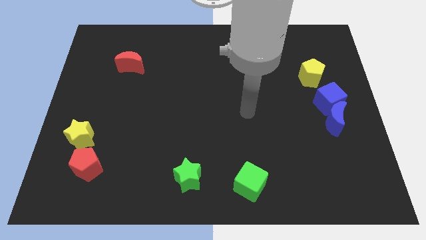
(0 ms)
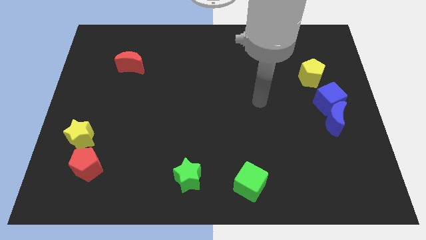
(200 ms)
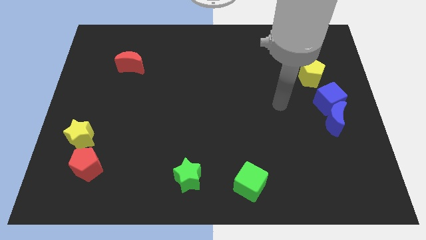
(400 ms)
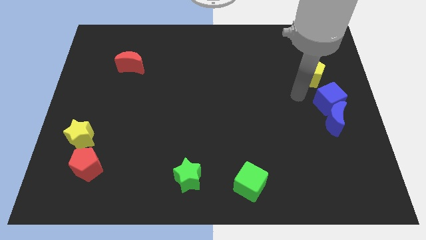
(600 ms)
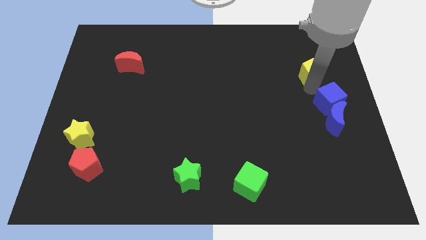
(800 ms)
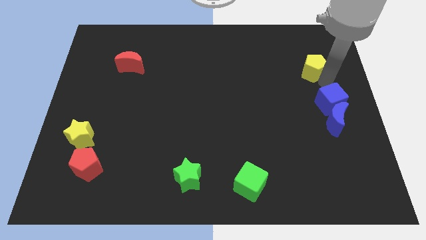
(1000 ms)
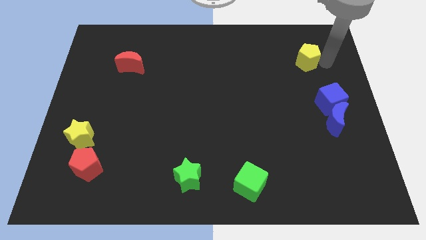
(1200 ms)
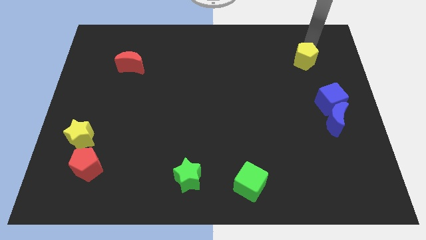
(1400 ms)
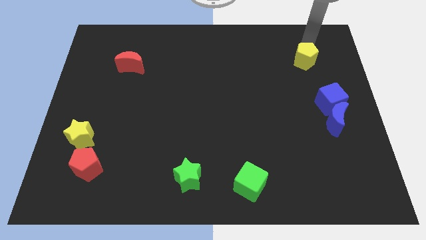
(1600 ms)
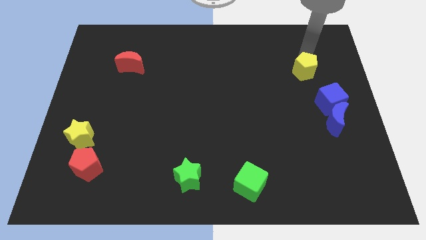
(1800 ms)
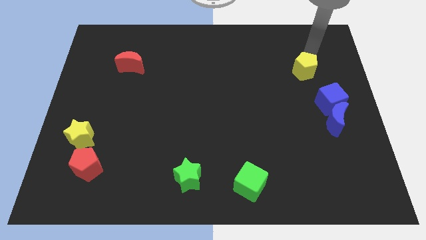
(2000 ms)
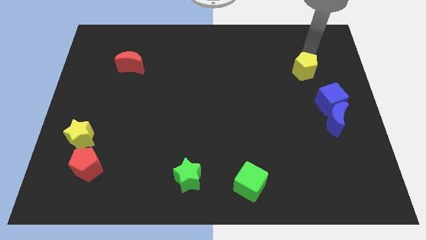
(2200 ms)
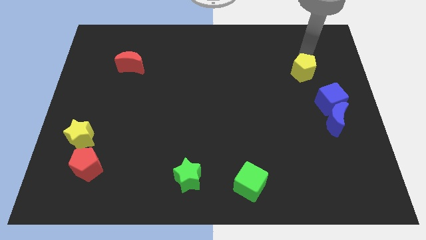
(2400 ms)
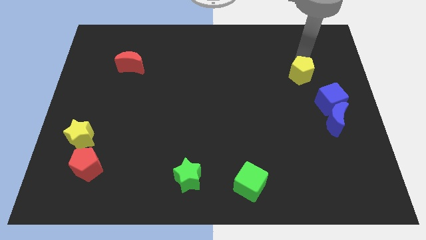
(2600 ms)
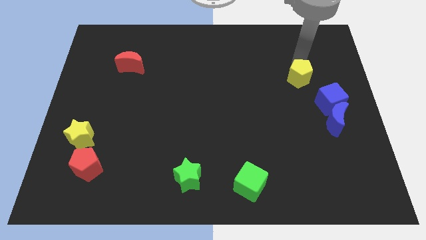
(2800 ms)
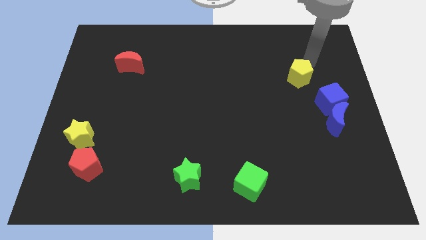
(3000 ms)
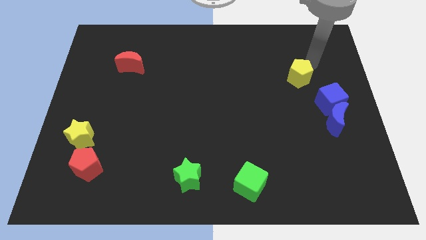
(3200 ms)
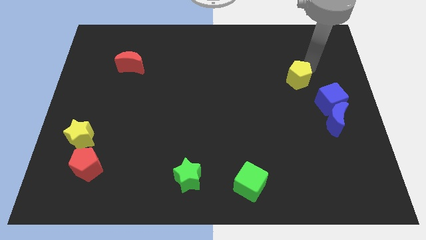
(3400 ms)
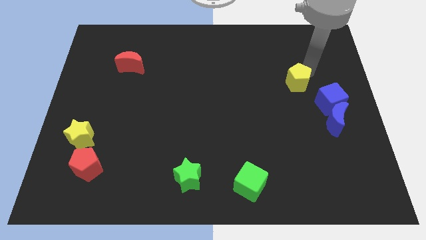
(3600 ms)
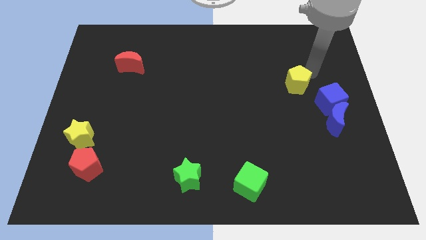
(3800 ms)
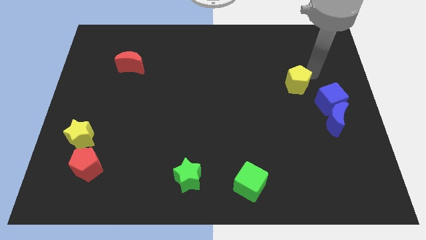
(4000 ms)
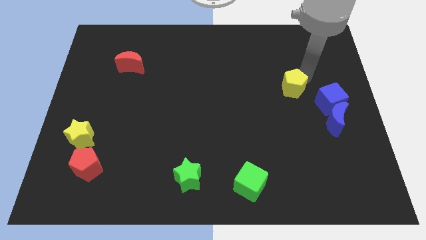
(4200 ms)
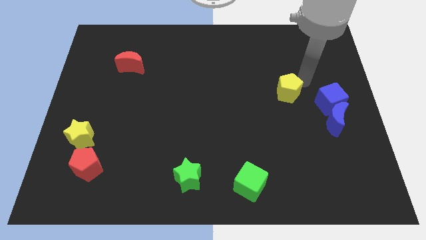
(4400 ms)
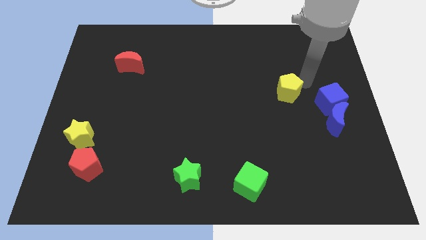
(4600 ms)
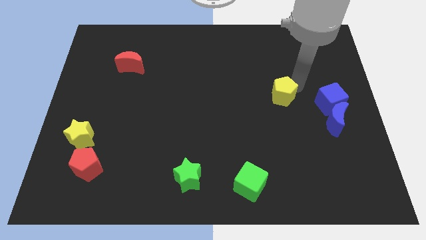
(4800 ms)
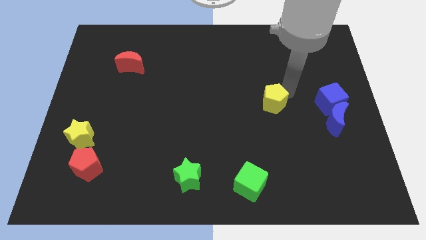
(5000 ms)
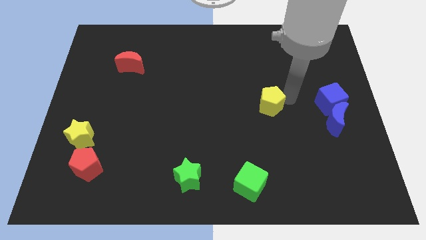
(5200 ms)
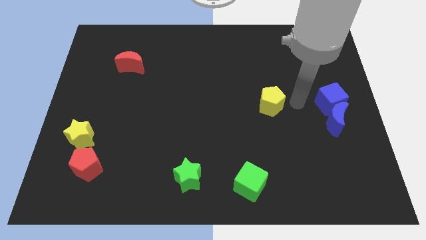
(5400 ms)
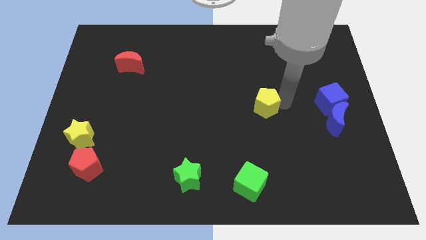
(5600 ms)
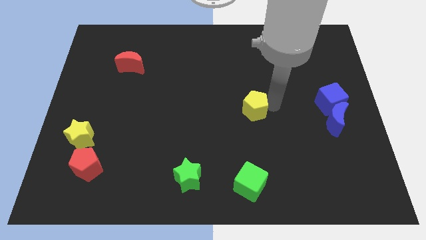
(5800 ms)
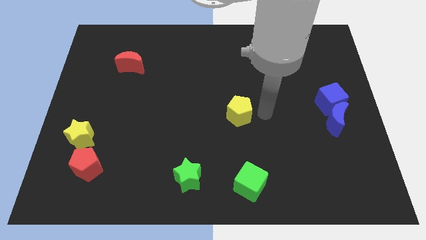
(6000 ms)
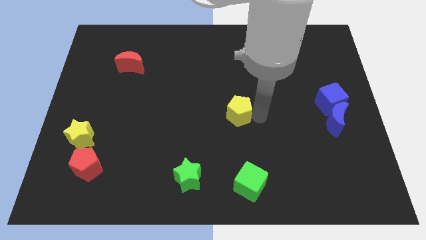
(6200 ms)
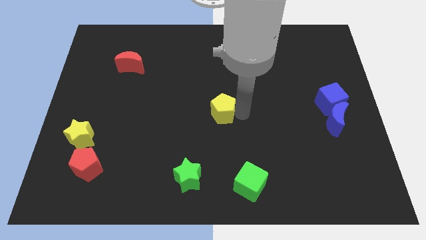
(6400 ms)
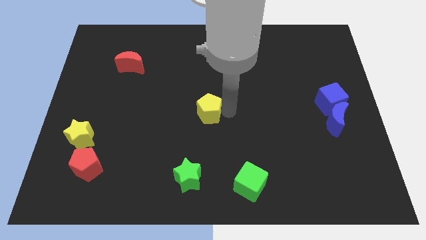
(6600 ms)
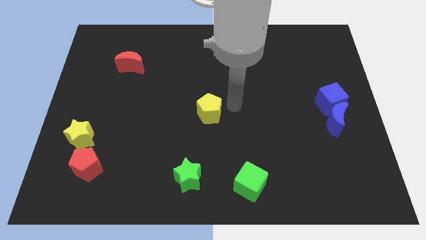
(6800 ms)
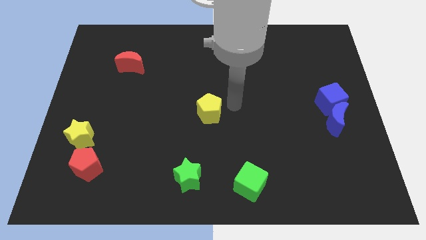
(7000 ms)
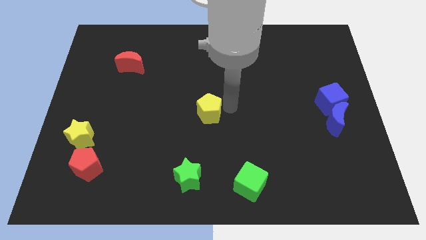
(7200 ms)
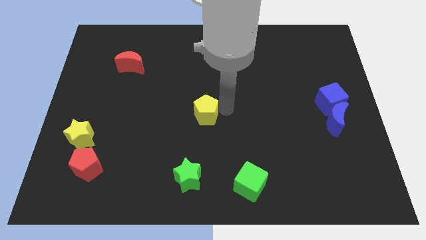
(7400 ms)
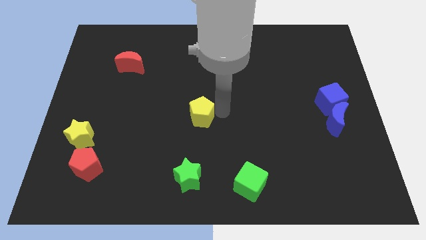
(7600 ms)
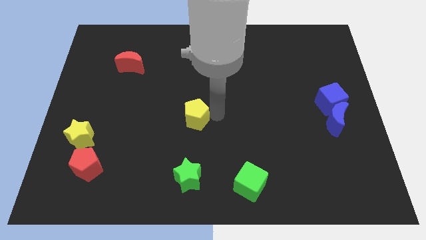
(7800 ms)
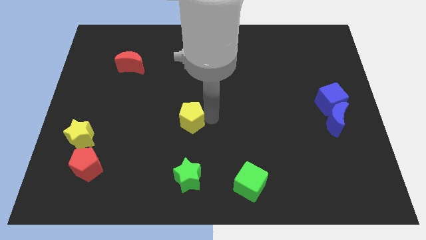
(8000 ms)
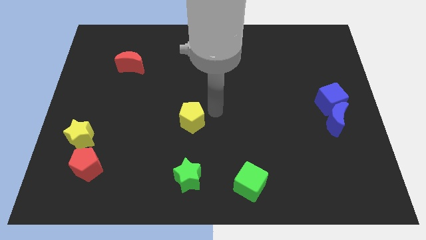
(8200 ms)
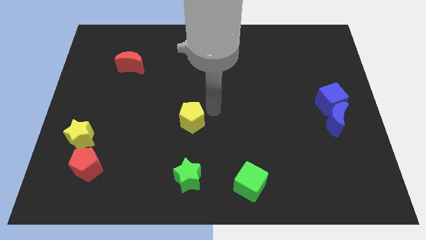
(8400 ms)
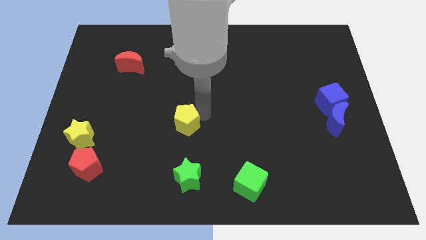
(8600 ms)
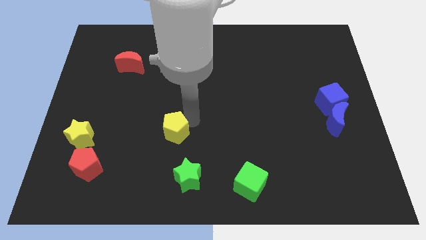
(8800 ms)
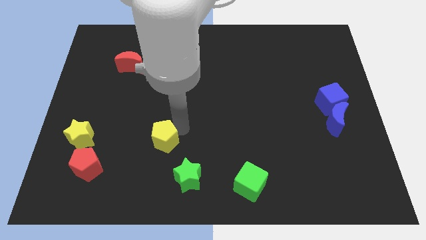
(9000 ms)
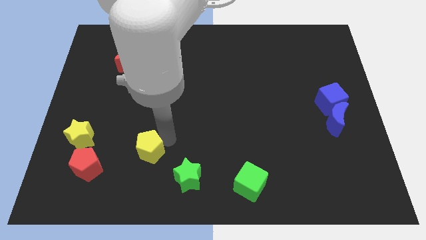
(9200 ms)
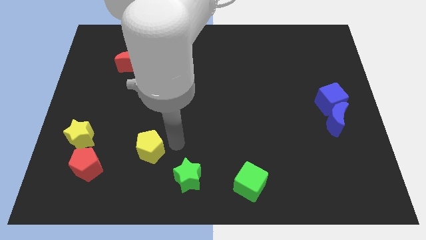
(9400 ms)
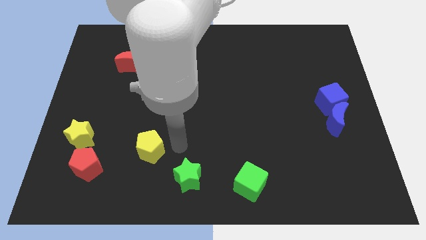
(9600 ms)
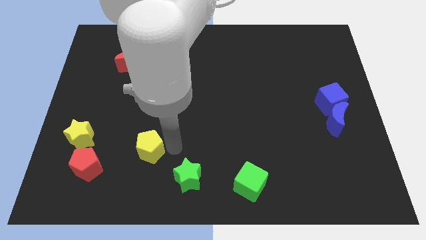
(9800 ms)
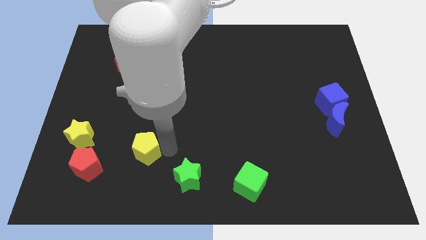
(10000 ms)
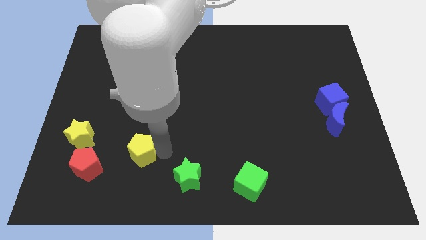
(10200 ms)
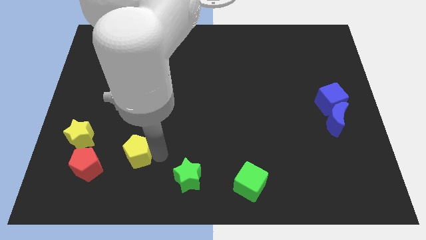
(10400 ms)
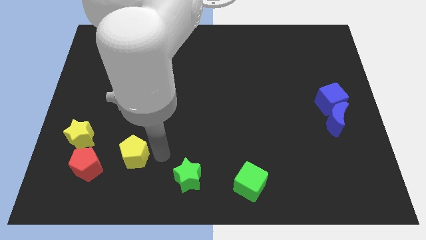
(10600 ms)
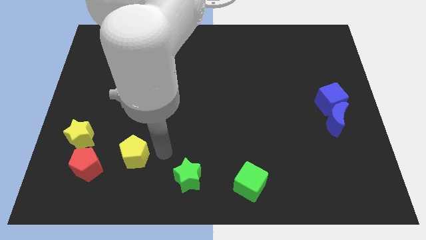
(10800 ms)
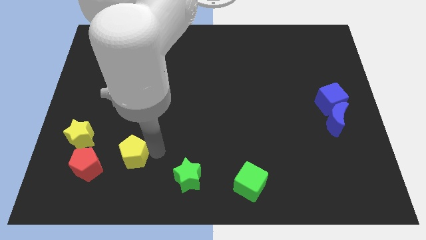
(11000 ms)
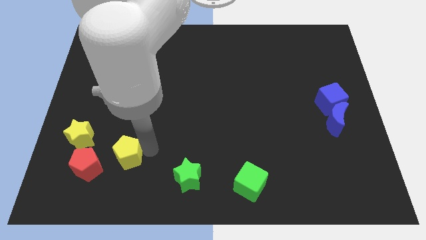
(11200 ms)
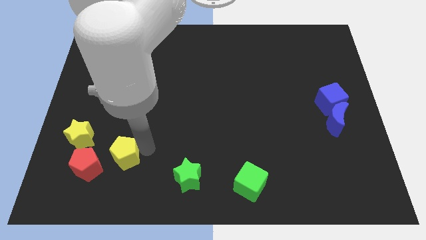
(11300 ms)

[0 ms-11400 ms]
slide the yellow pentagon to the bottom right of the yellow star

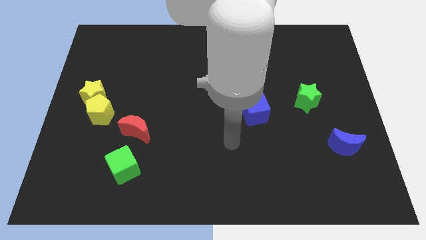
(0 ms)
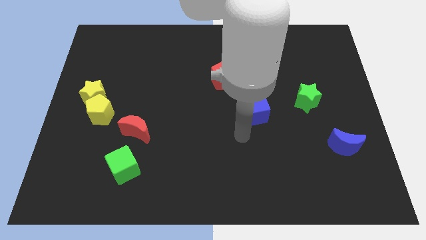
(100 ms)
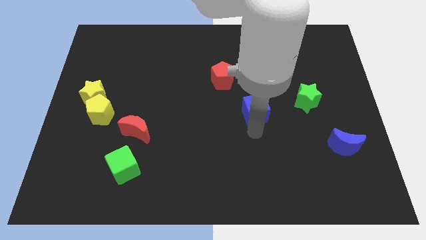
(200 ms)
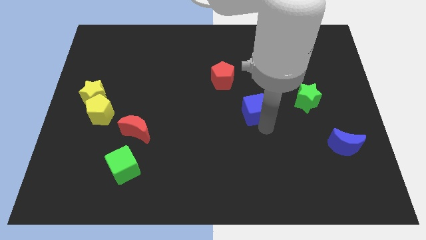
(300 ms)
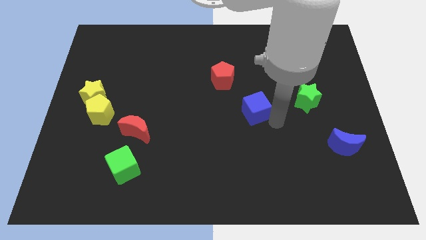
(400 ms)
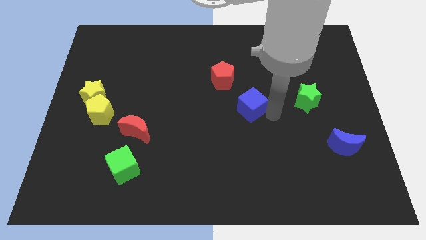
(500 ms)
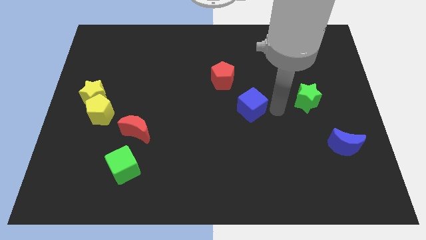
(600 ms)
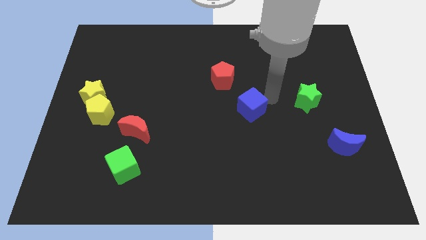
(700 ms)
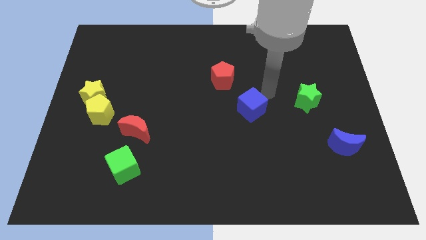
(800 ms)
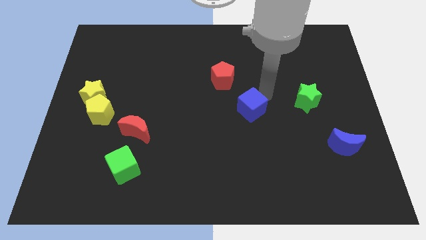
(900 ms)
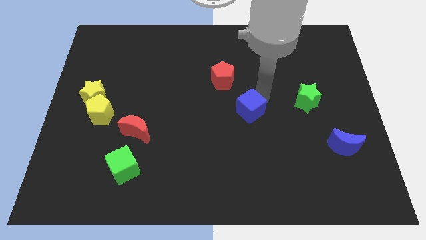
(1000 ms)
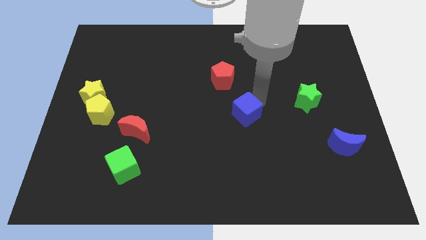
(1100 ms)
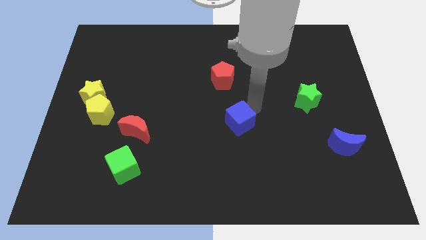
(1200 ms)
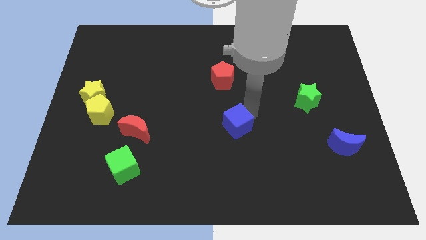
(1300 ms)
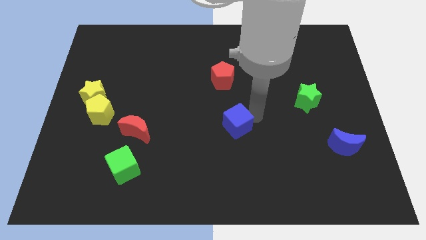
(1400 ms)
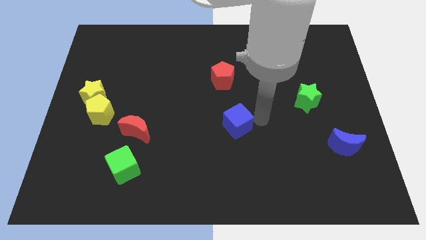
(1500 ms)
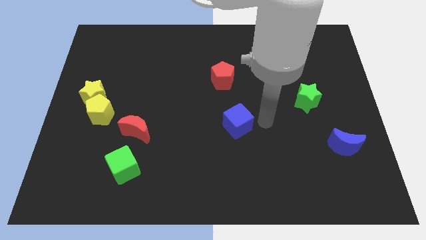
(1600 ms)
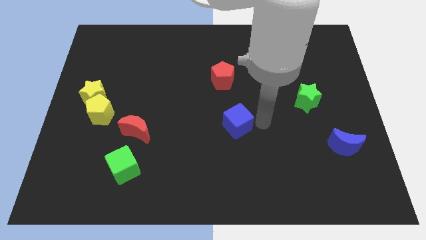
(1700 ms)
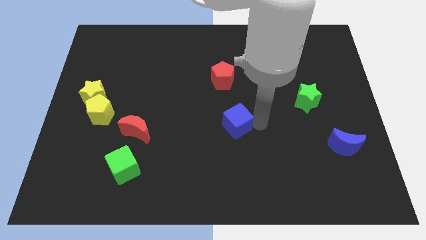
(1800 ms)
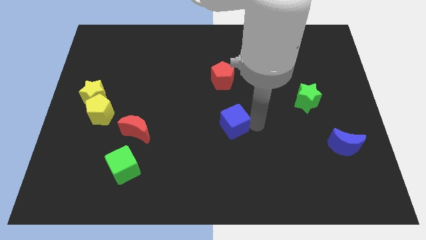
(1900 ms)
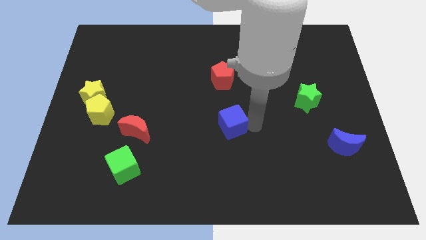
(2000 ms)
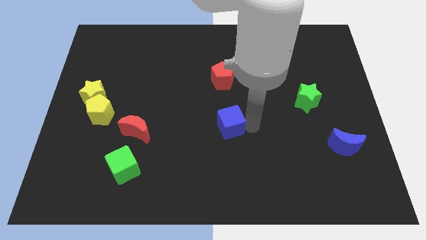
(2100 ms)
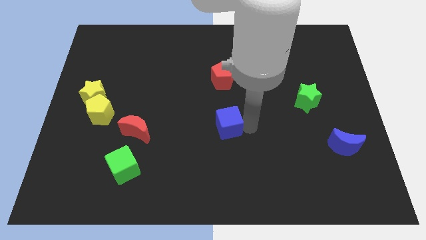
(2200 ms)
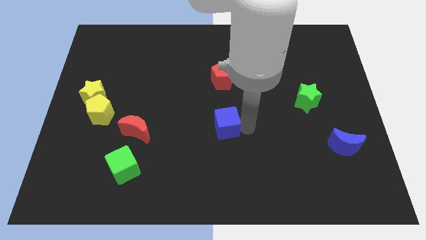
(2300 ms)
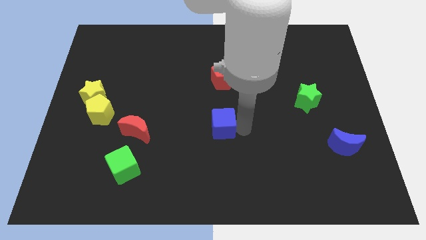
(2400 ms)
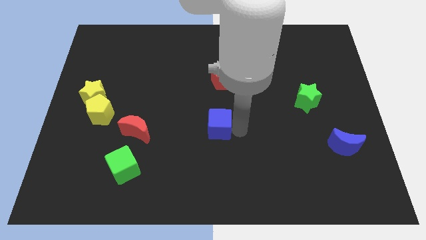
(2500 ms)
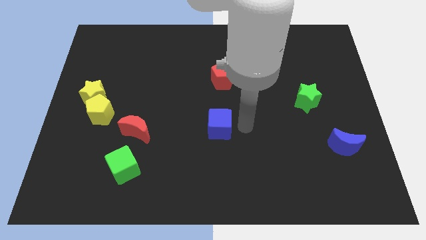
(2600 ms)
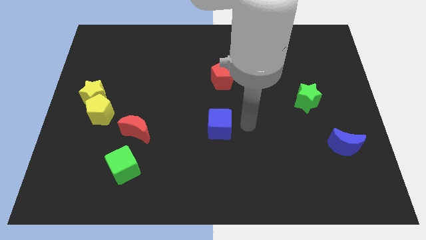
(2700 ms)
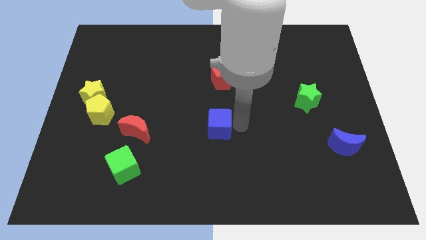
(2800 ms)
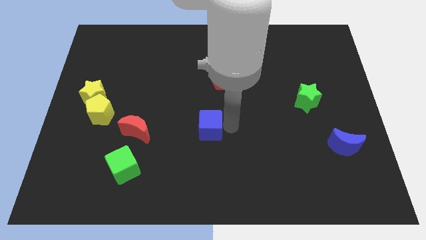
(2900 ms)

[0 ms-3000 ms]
move the blue cube to the right of the red moon
